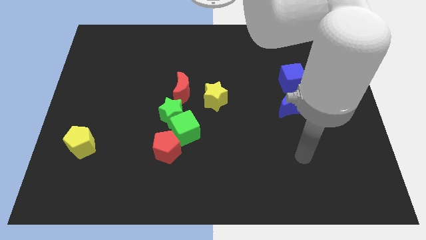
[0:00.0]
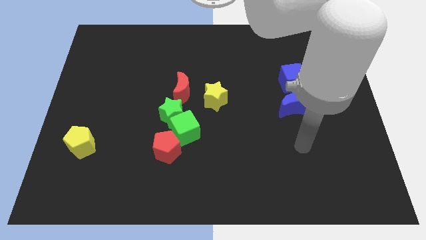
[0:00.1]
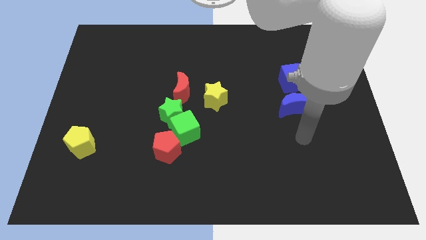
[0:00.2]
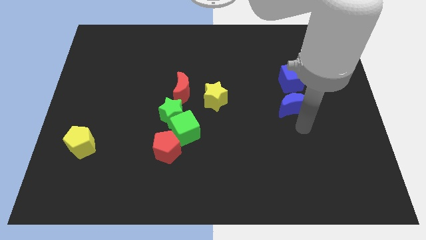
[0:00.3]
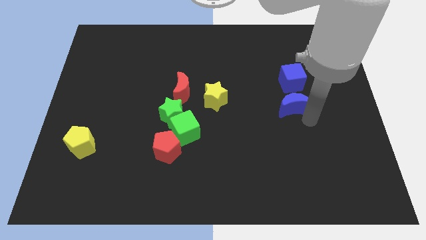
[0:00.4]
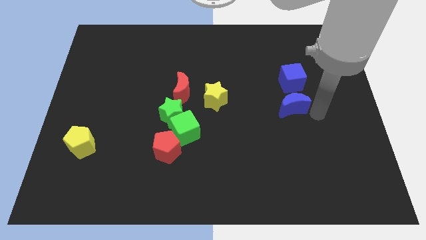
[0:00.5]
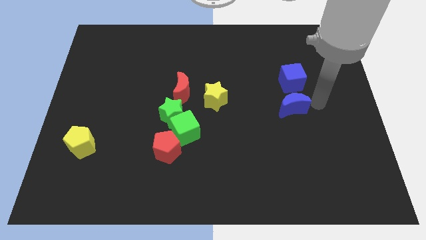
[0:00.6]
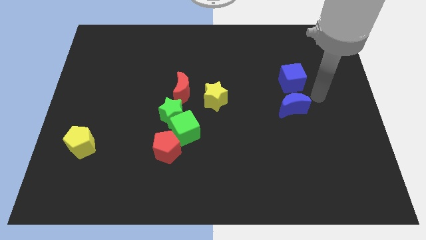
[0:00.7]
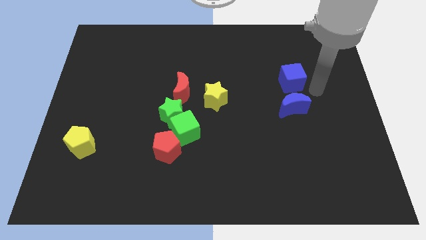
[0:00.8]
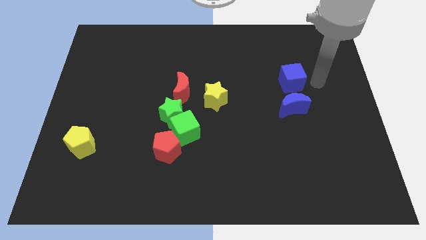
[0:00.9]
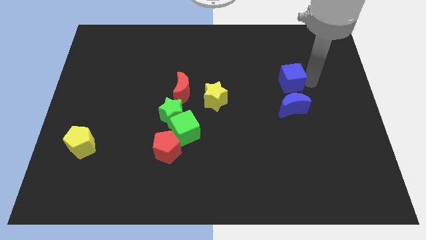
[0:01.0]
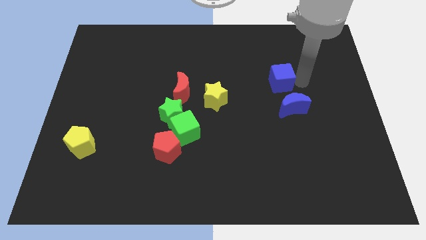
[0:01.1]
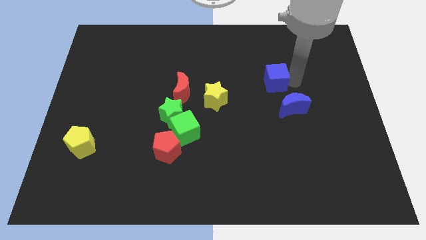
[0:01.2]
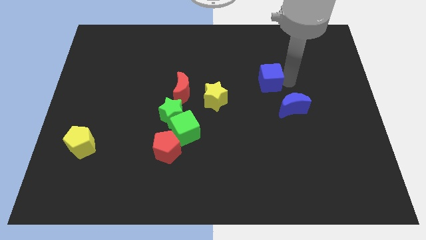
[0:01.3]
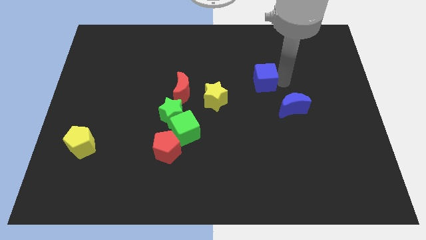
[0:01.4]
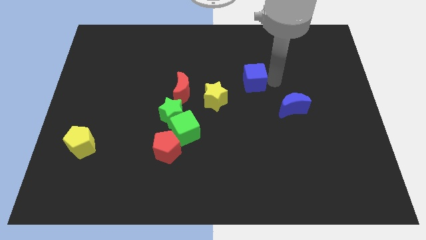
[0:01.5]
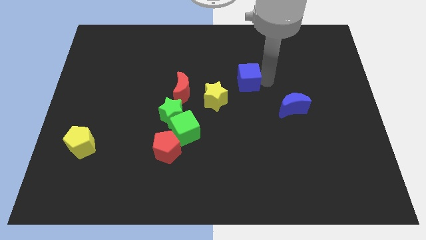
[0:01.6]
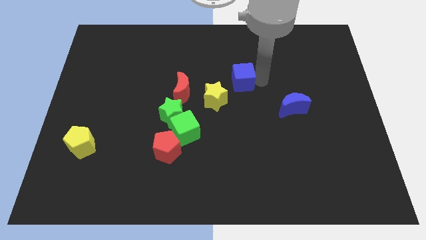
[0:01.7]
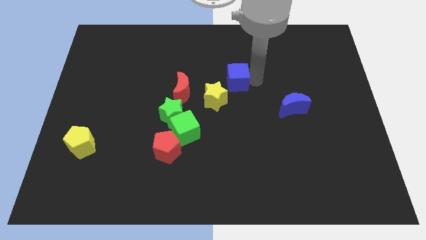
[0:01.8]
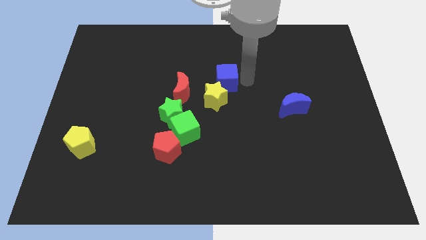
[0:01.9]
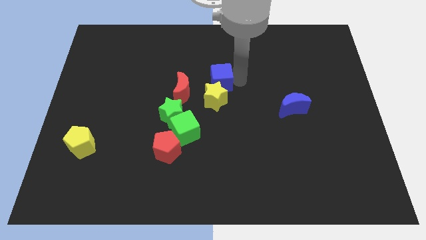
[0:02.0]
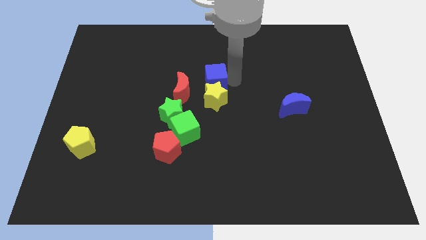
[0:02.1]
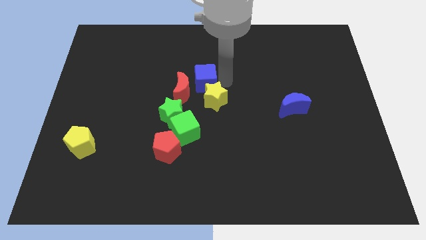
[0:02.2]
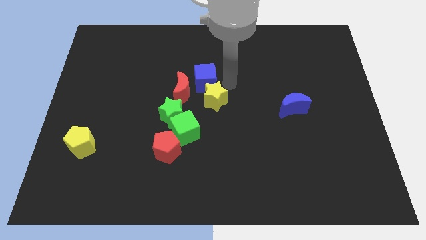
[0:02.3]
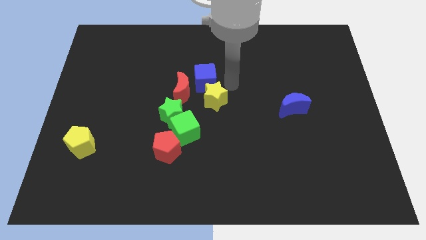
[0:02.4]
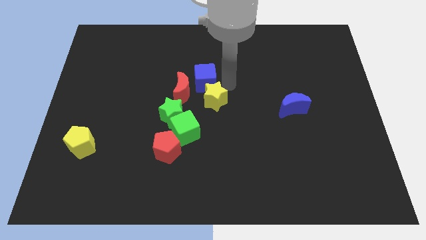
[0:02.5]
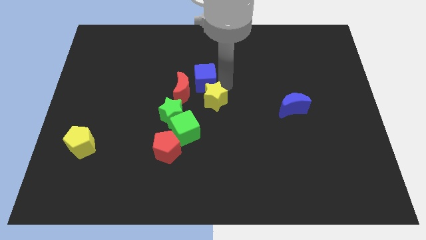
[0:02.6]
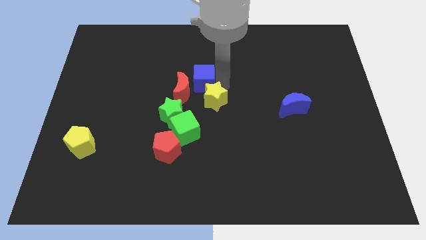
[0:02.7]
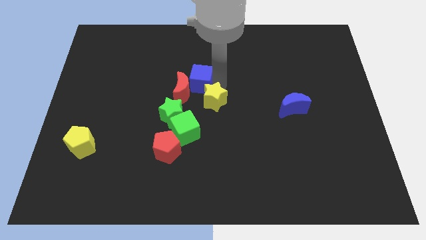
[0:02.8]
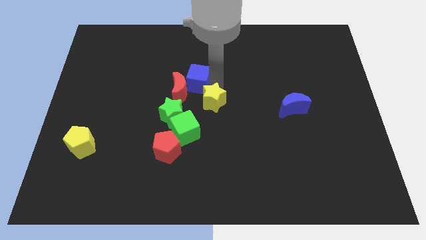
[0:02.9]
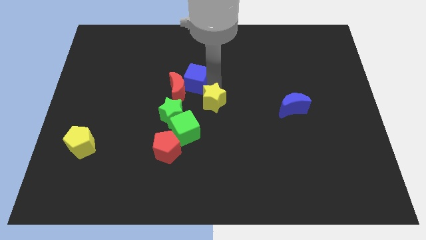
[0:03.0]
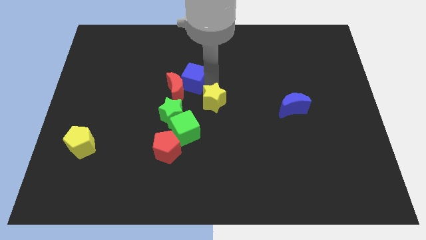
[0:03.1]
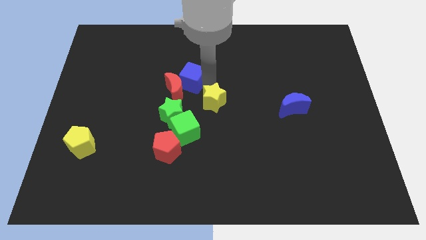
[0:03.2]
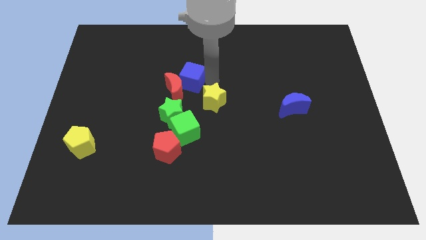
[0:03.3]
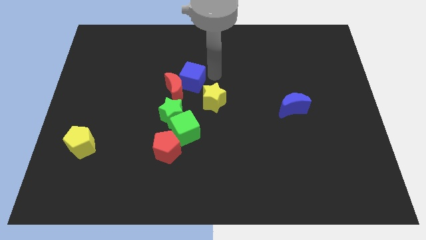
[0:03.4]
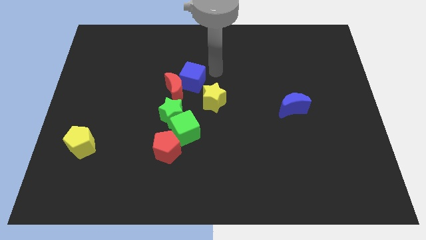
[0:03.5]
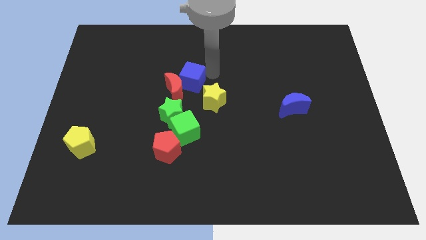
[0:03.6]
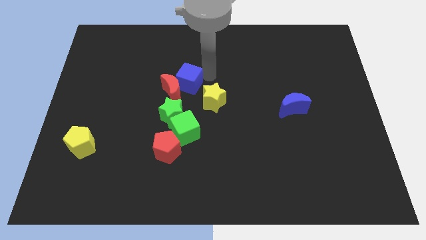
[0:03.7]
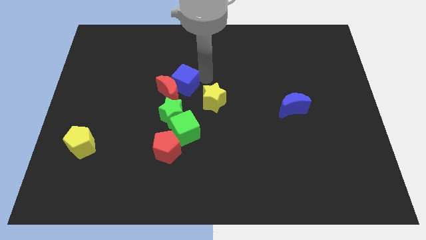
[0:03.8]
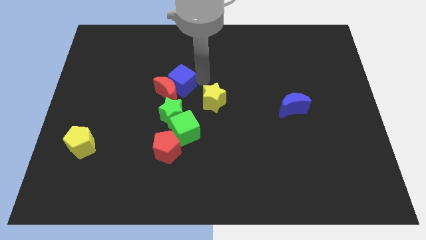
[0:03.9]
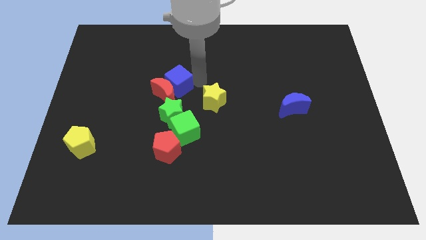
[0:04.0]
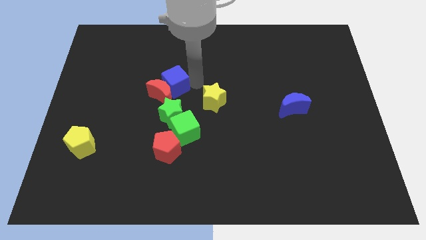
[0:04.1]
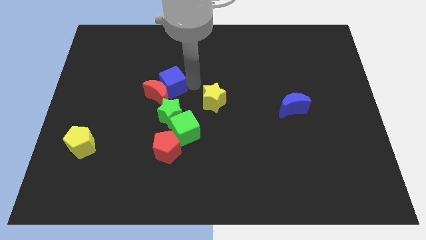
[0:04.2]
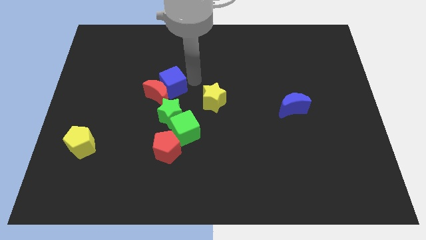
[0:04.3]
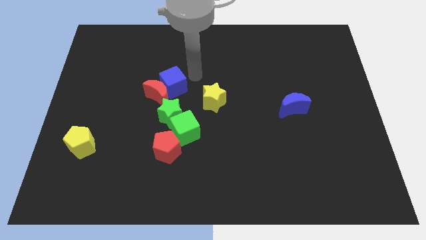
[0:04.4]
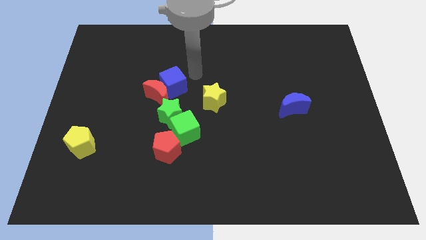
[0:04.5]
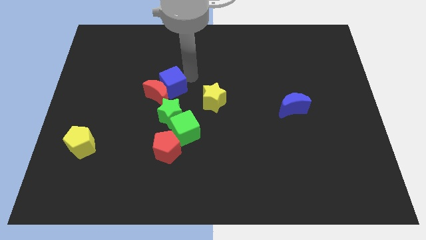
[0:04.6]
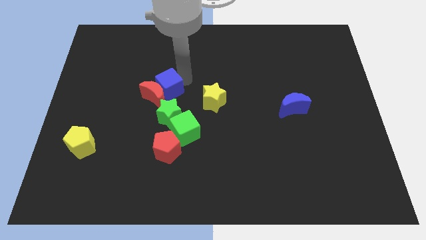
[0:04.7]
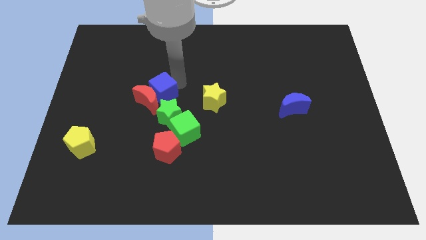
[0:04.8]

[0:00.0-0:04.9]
put the blue cube to the top left side of the green star

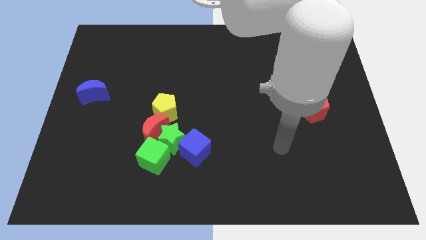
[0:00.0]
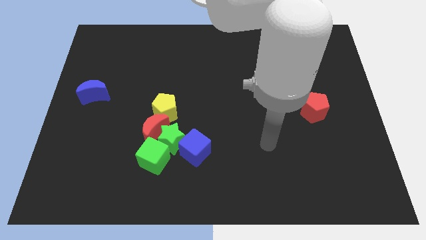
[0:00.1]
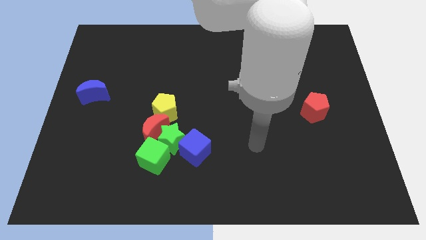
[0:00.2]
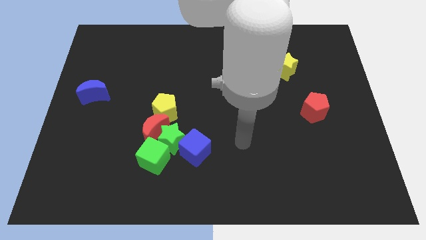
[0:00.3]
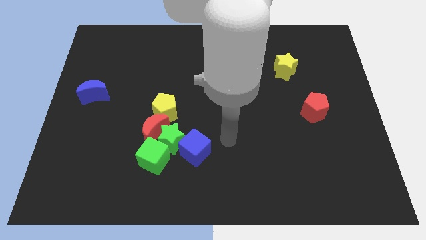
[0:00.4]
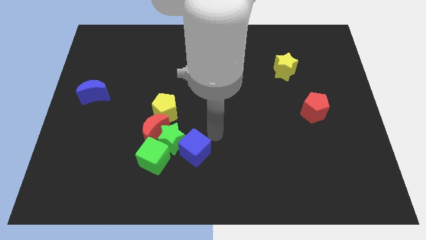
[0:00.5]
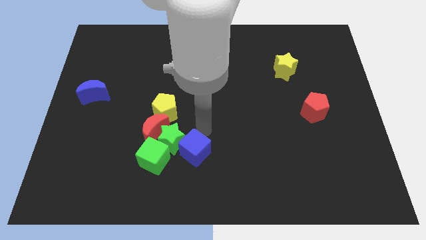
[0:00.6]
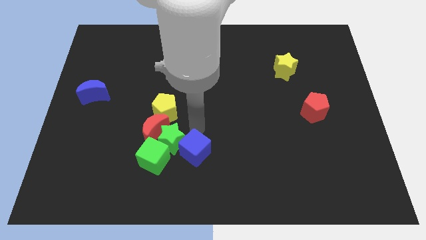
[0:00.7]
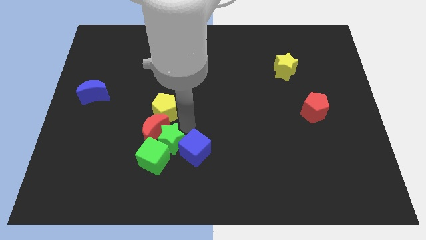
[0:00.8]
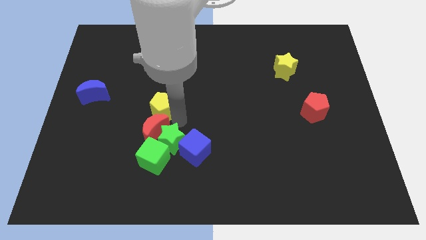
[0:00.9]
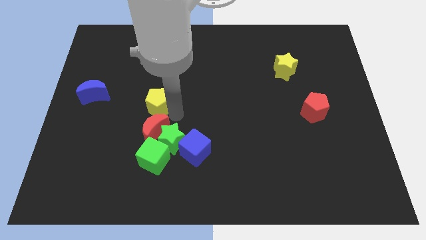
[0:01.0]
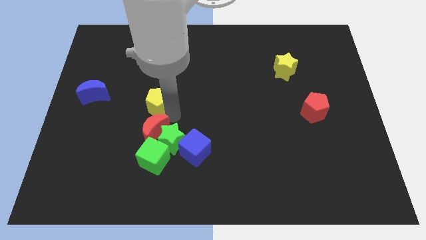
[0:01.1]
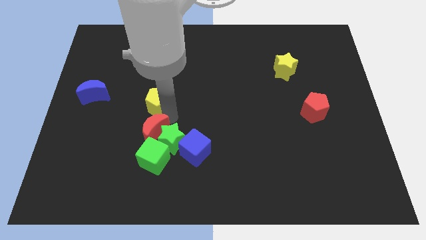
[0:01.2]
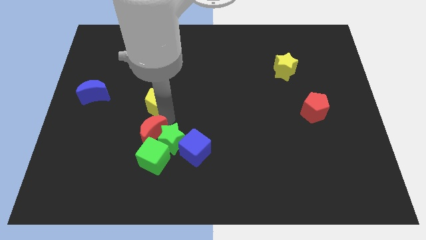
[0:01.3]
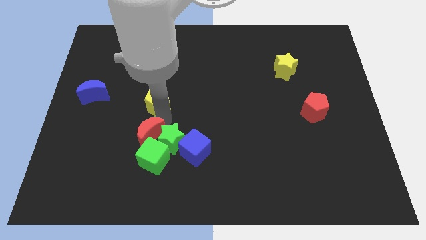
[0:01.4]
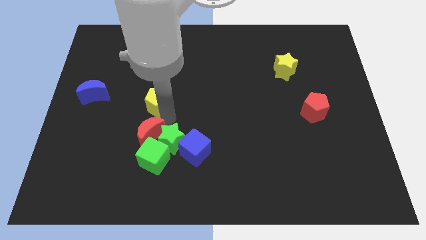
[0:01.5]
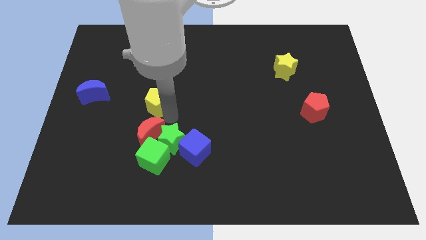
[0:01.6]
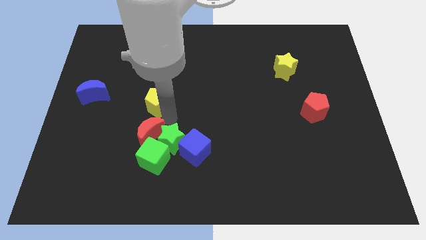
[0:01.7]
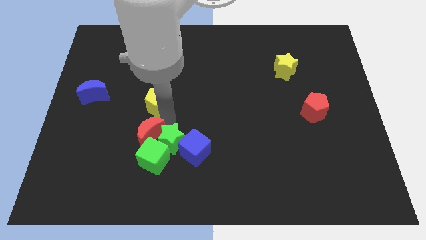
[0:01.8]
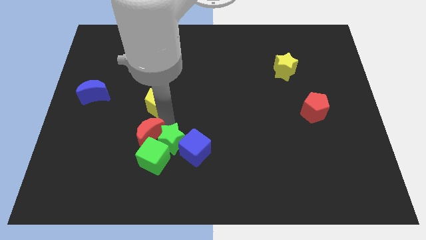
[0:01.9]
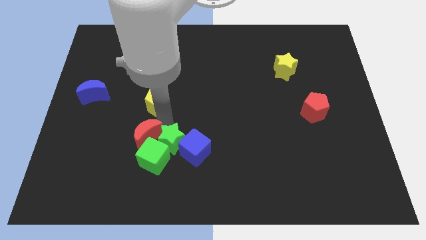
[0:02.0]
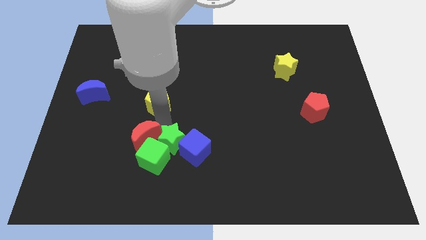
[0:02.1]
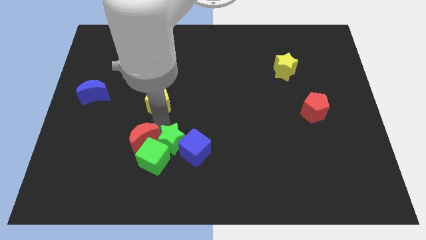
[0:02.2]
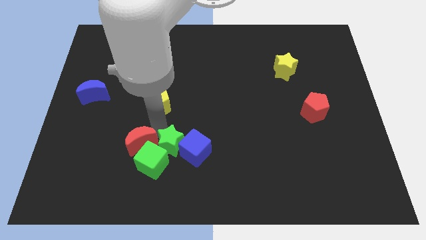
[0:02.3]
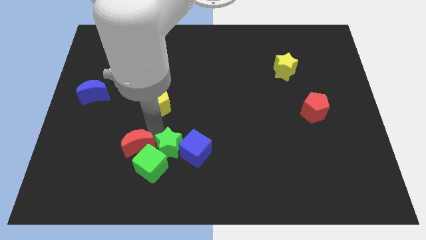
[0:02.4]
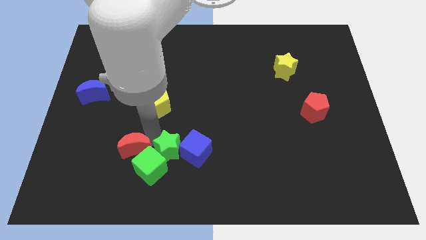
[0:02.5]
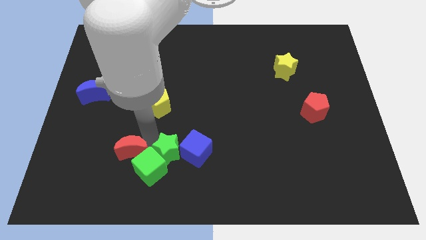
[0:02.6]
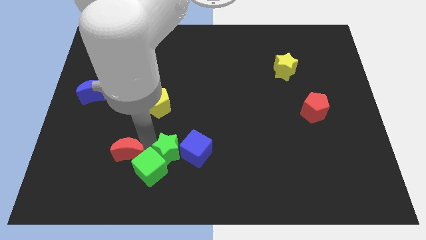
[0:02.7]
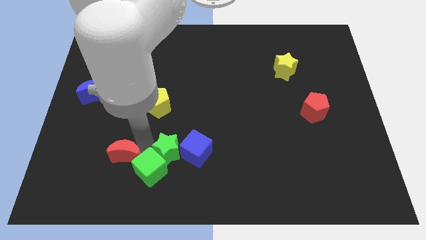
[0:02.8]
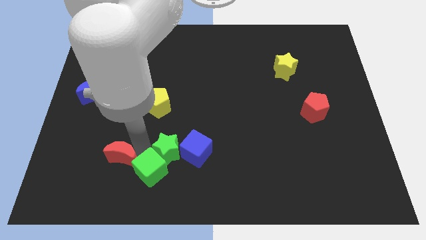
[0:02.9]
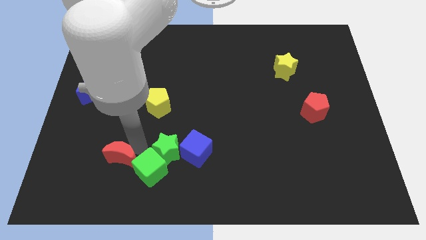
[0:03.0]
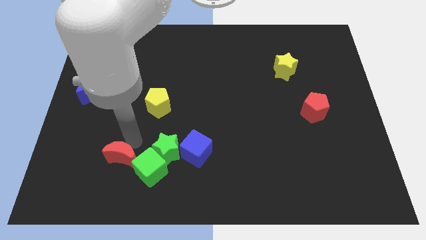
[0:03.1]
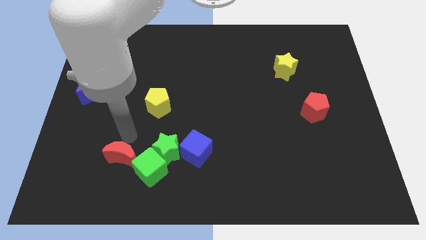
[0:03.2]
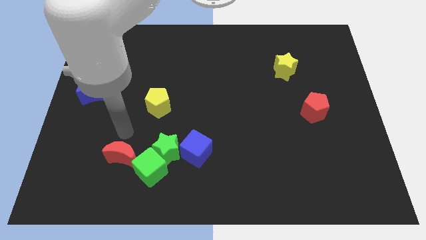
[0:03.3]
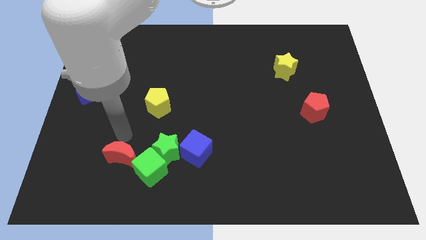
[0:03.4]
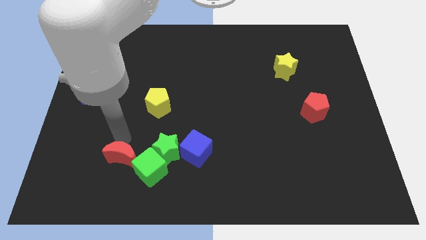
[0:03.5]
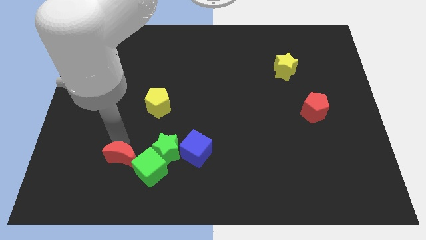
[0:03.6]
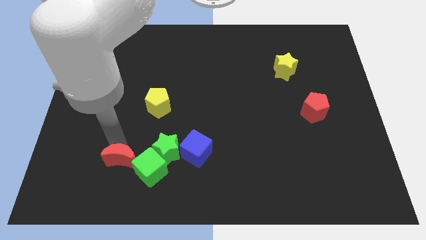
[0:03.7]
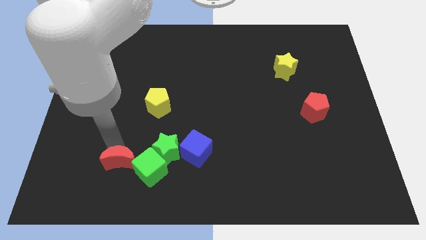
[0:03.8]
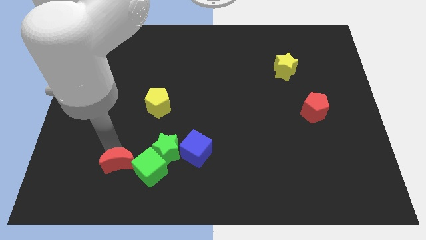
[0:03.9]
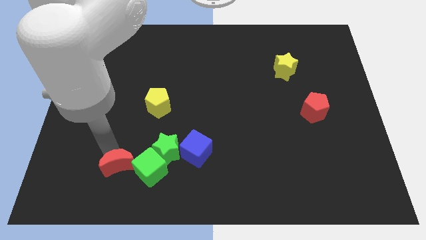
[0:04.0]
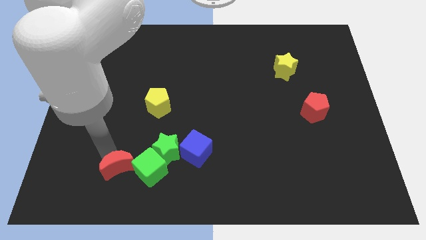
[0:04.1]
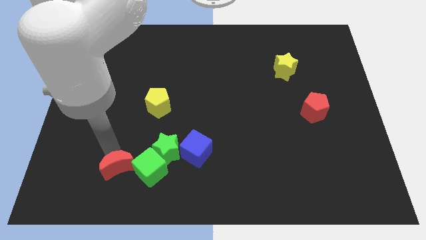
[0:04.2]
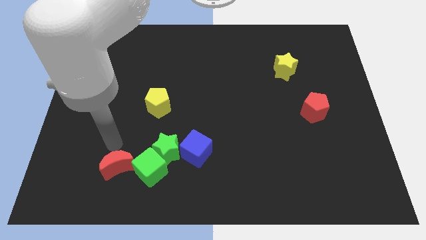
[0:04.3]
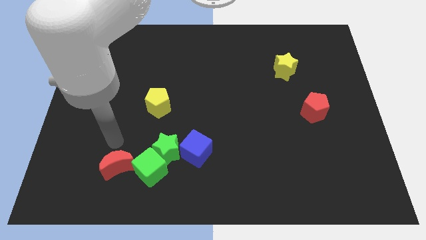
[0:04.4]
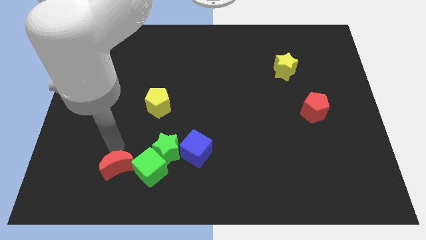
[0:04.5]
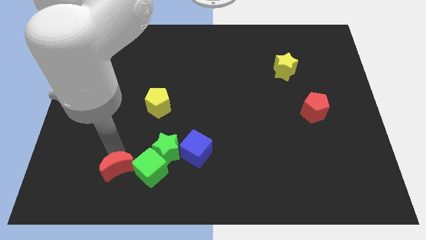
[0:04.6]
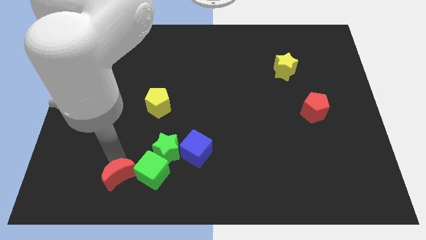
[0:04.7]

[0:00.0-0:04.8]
slide the red moon diagonally down and to the left of the green cube
